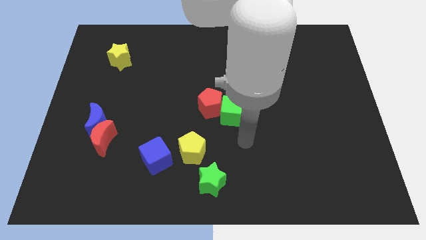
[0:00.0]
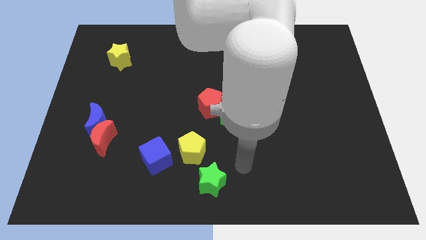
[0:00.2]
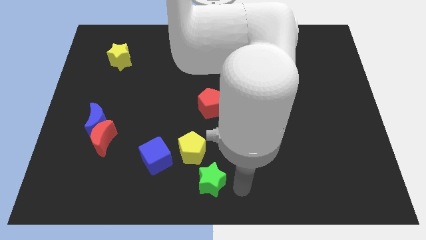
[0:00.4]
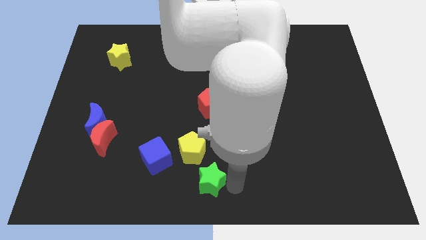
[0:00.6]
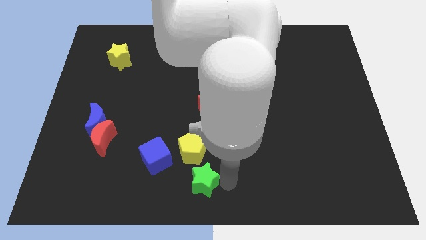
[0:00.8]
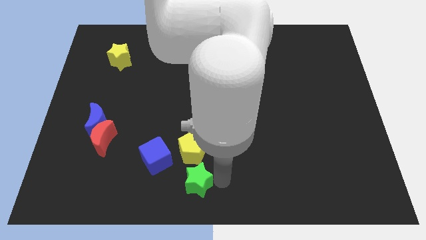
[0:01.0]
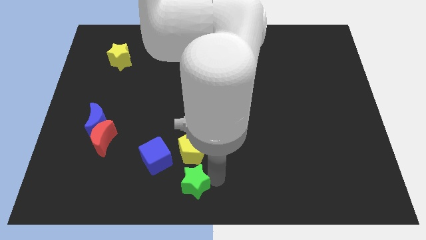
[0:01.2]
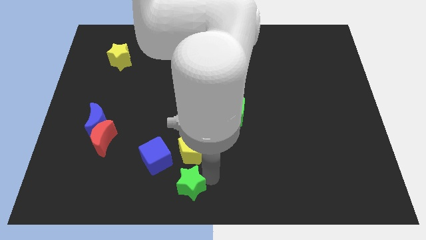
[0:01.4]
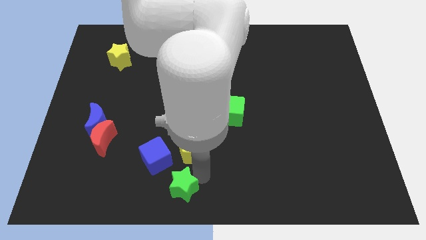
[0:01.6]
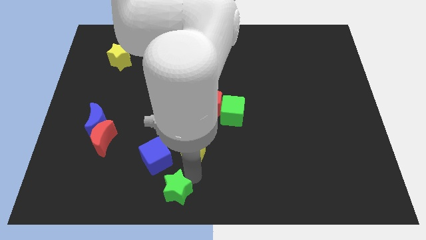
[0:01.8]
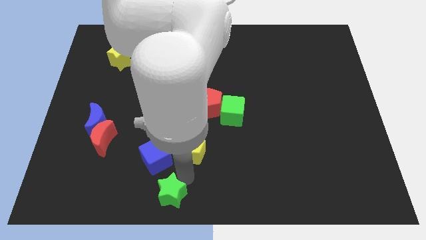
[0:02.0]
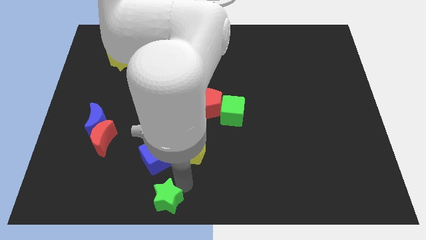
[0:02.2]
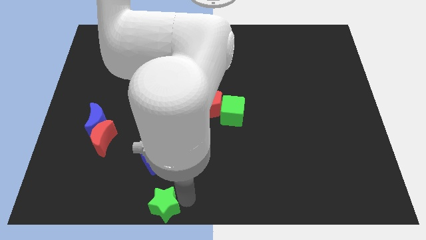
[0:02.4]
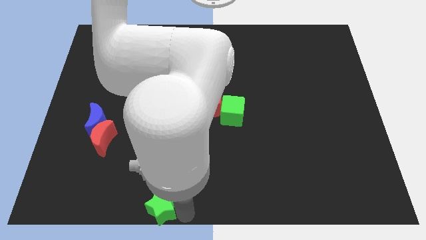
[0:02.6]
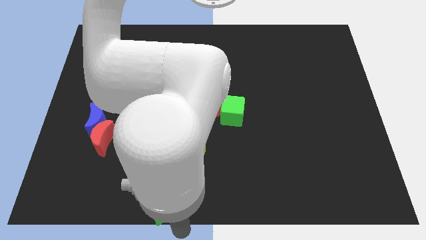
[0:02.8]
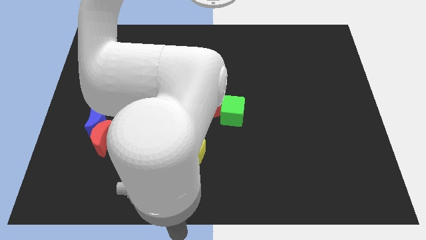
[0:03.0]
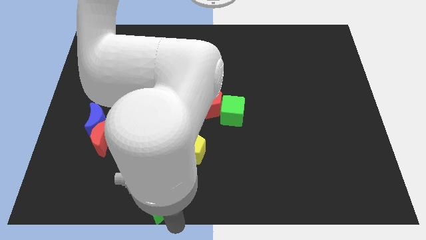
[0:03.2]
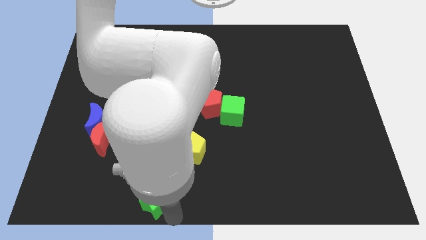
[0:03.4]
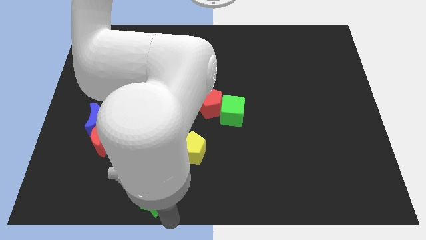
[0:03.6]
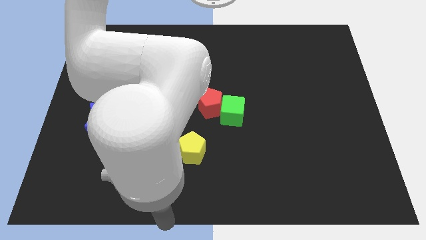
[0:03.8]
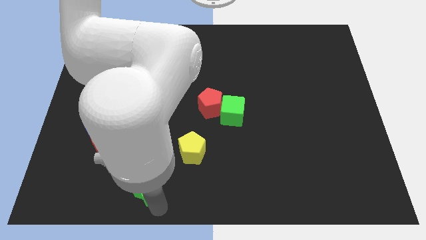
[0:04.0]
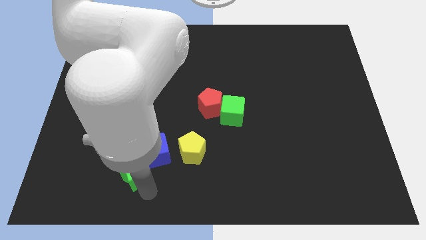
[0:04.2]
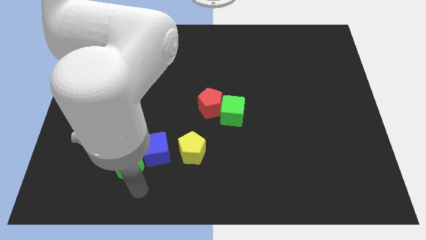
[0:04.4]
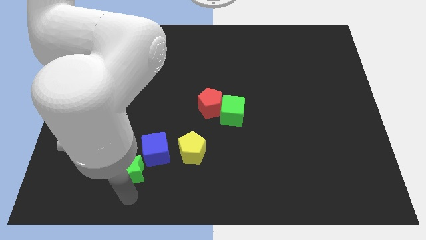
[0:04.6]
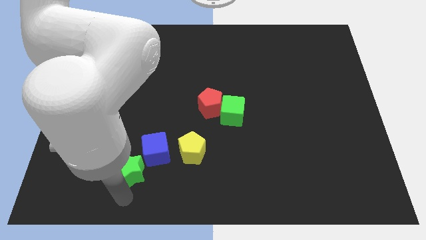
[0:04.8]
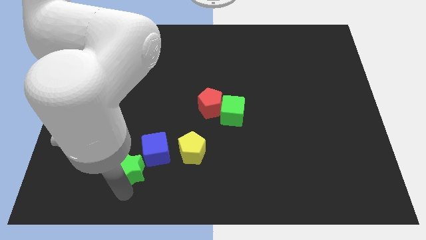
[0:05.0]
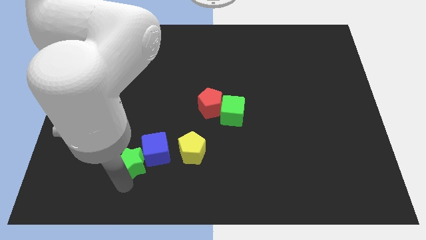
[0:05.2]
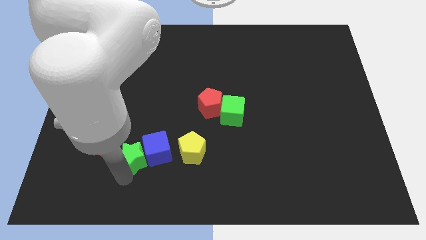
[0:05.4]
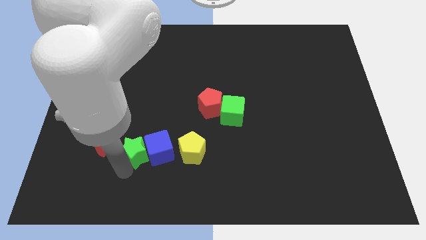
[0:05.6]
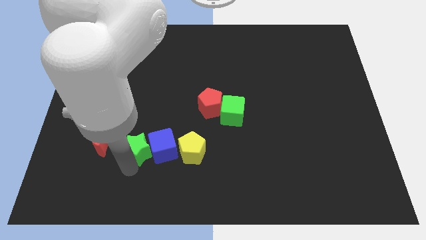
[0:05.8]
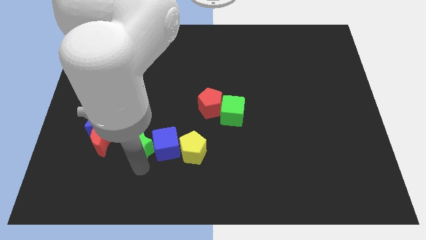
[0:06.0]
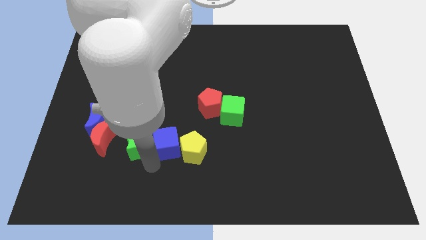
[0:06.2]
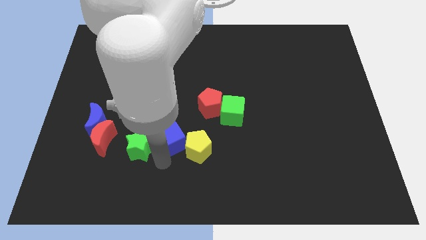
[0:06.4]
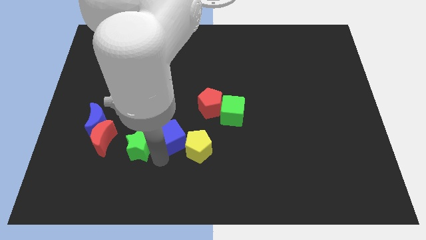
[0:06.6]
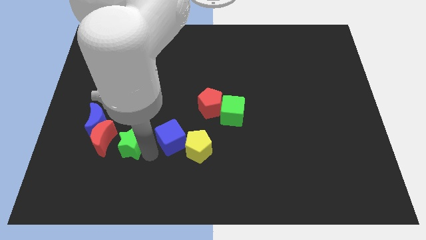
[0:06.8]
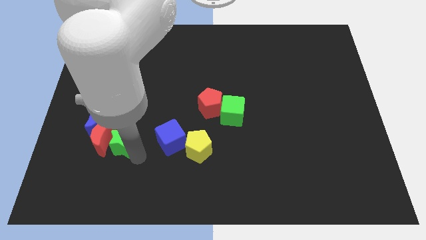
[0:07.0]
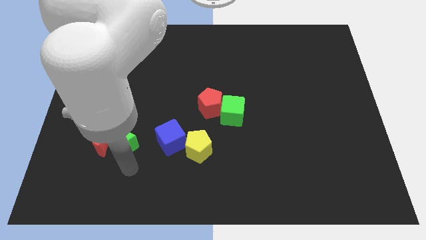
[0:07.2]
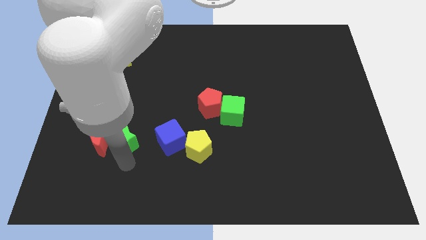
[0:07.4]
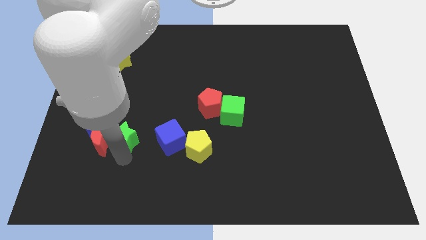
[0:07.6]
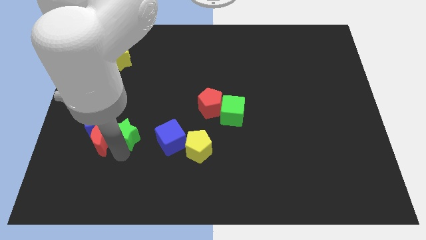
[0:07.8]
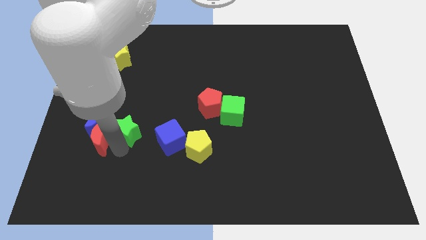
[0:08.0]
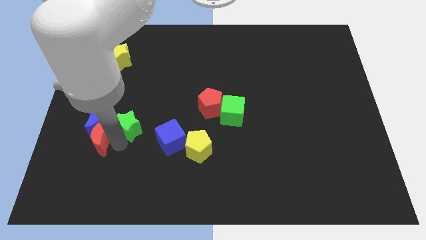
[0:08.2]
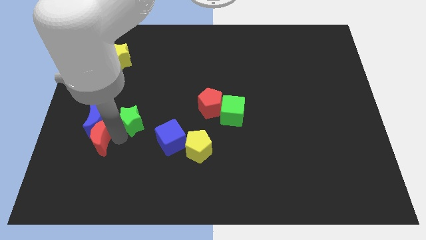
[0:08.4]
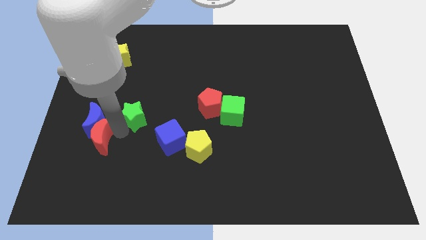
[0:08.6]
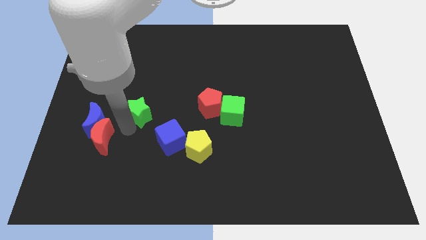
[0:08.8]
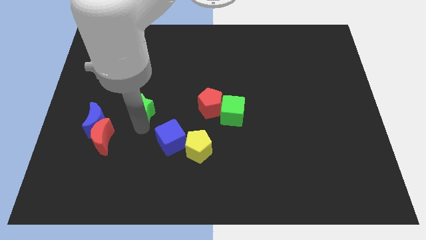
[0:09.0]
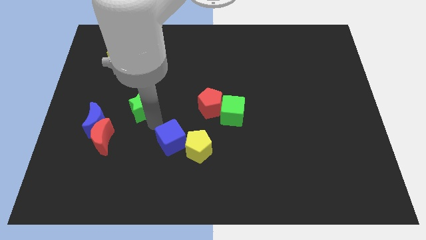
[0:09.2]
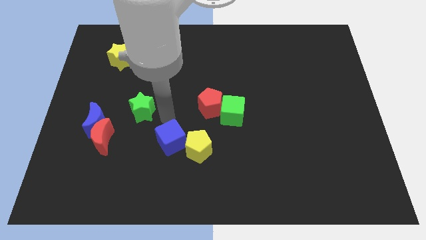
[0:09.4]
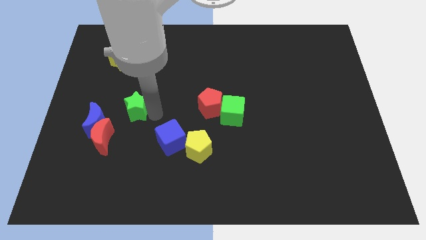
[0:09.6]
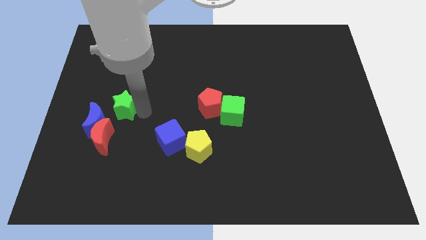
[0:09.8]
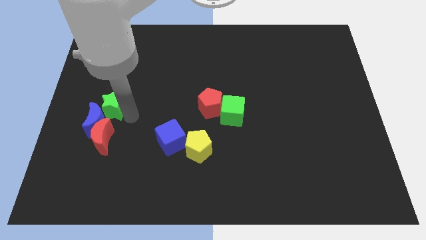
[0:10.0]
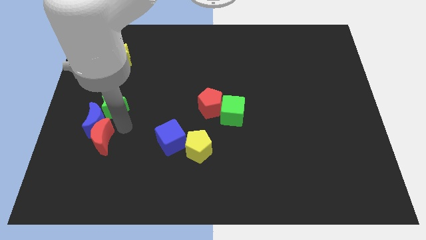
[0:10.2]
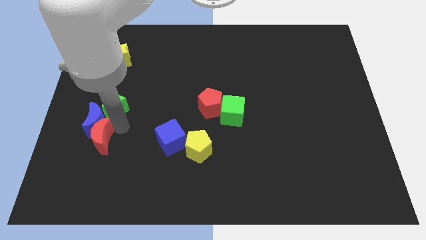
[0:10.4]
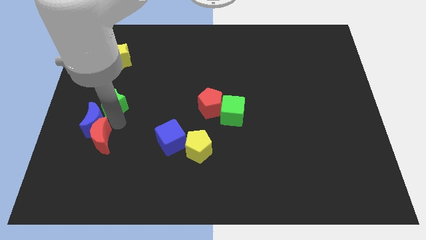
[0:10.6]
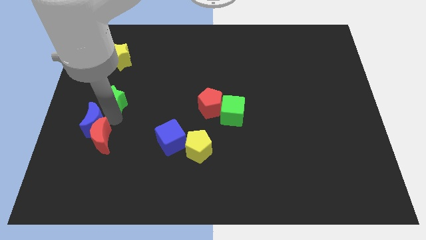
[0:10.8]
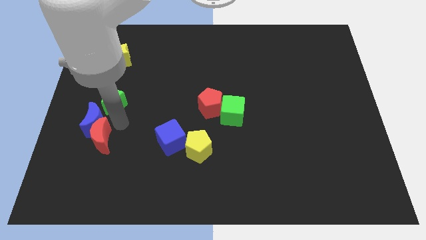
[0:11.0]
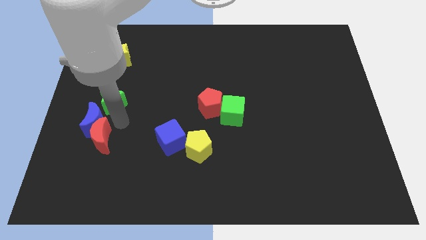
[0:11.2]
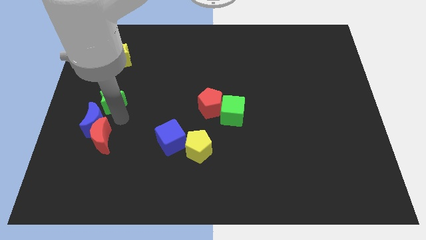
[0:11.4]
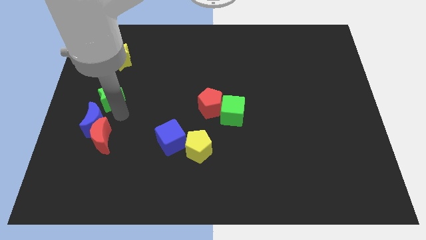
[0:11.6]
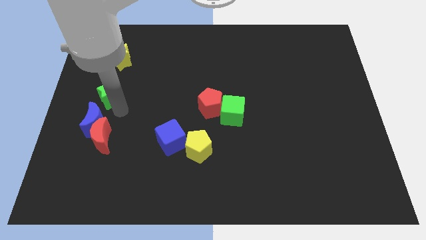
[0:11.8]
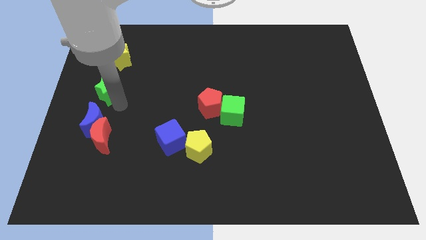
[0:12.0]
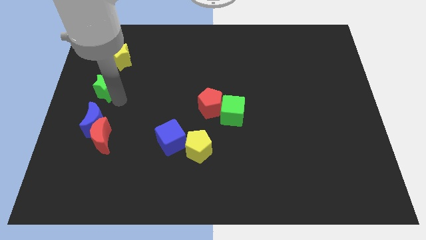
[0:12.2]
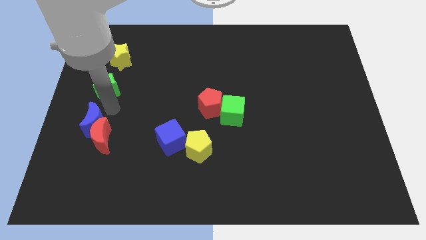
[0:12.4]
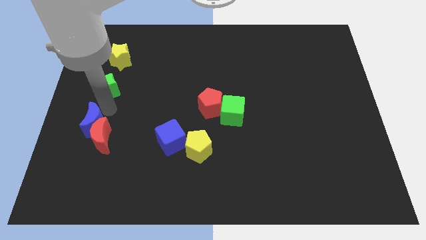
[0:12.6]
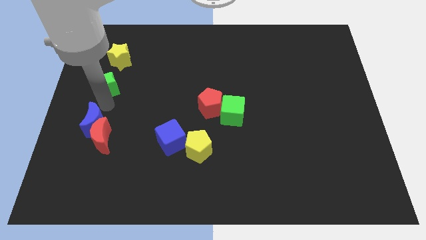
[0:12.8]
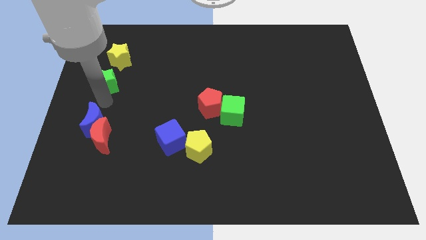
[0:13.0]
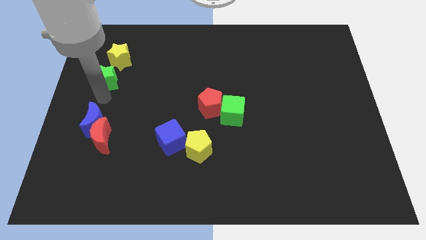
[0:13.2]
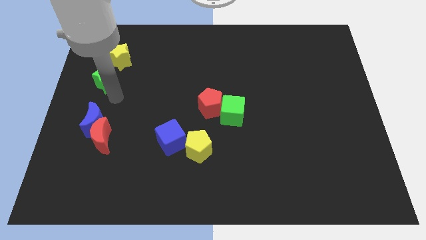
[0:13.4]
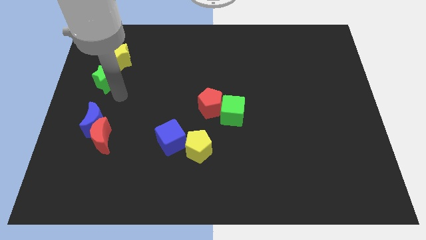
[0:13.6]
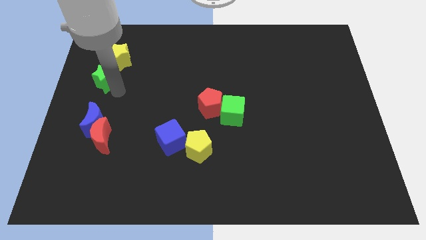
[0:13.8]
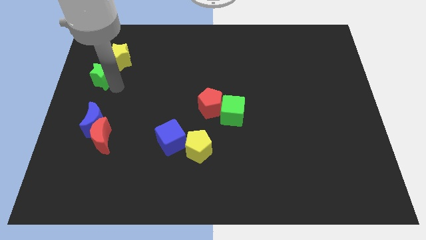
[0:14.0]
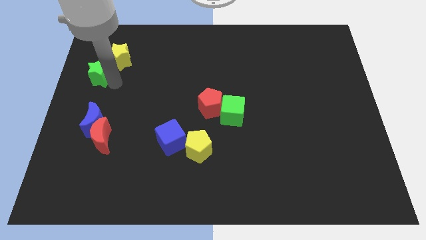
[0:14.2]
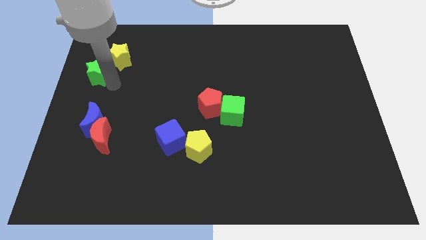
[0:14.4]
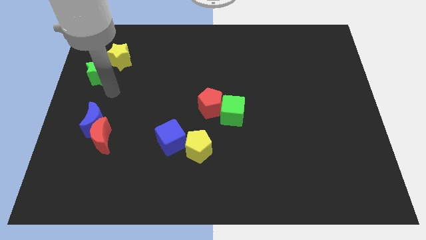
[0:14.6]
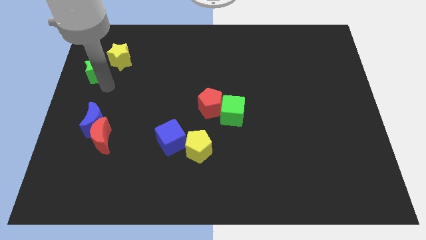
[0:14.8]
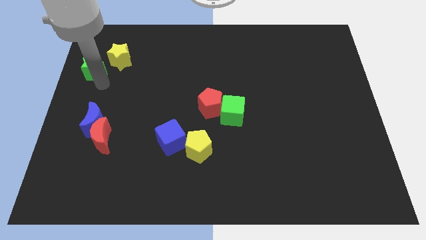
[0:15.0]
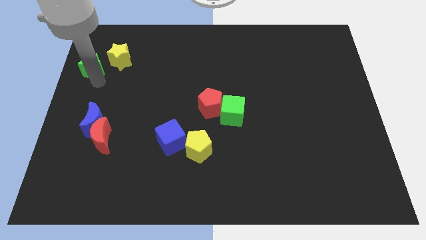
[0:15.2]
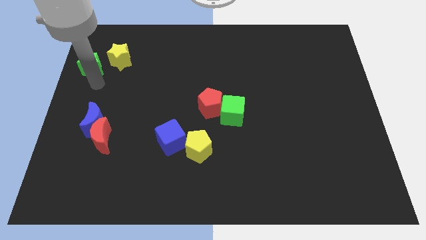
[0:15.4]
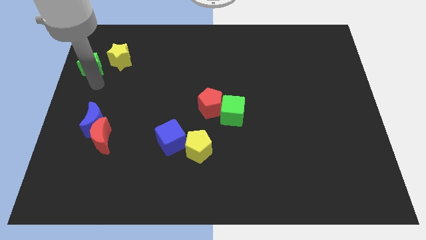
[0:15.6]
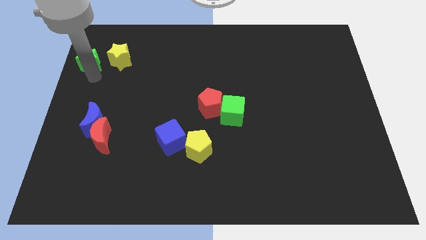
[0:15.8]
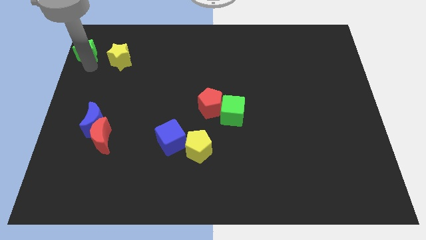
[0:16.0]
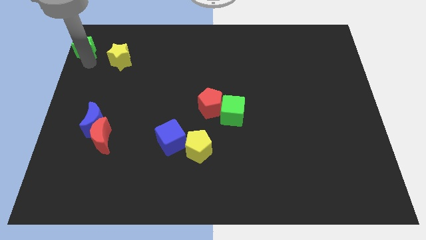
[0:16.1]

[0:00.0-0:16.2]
put the green star to the top left corner
